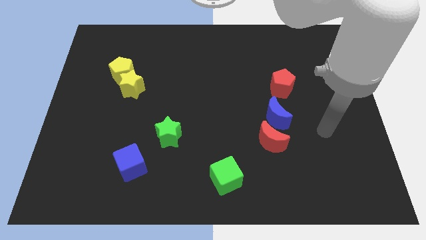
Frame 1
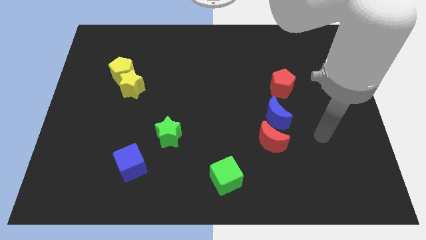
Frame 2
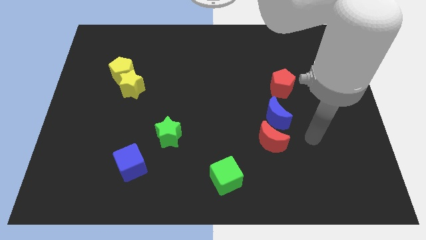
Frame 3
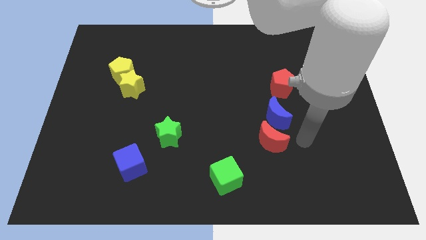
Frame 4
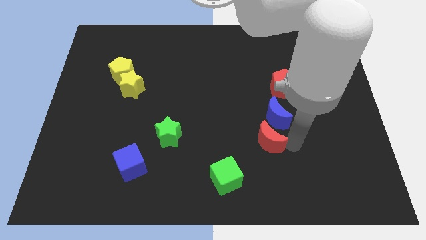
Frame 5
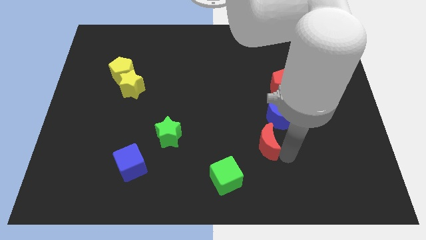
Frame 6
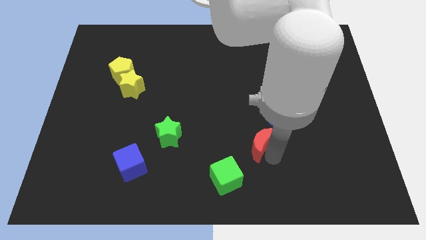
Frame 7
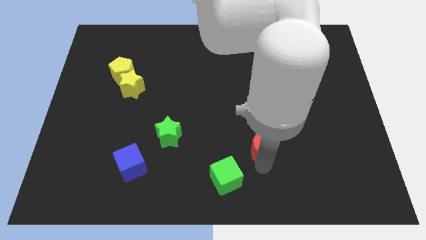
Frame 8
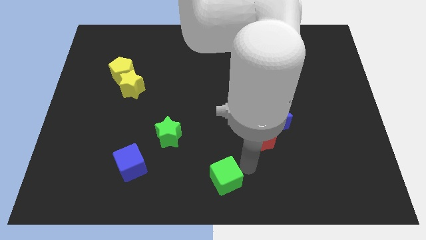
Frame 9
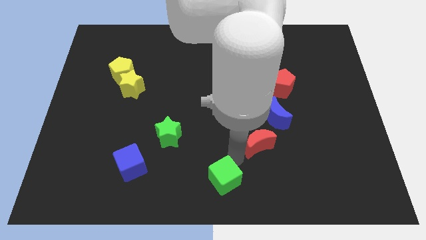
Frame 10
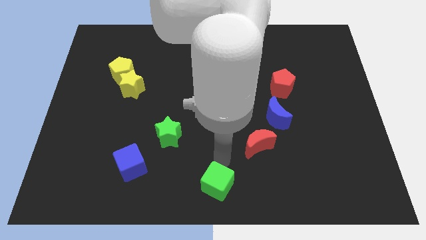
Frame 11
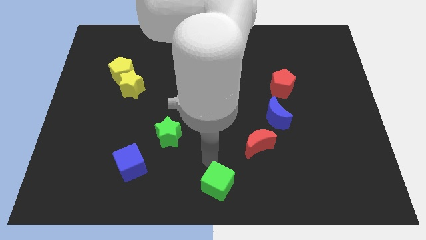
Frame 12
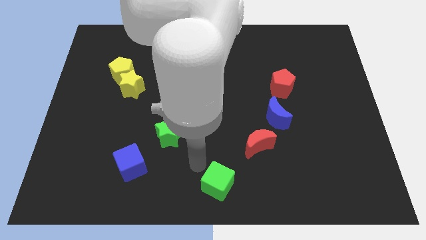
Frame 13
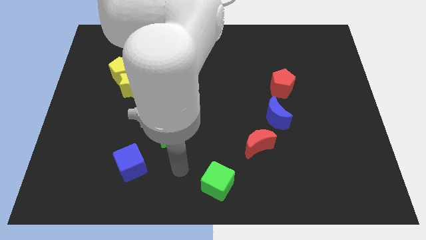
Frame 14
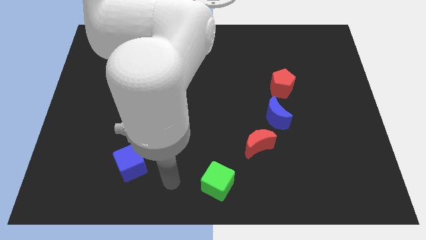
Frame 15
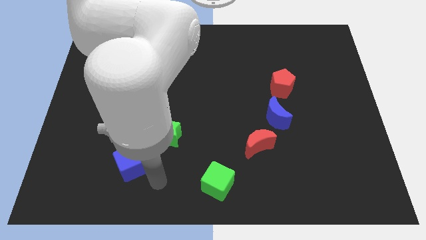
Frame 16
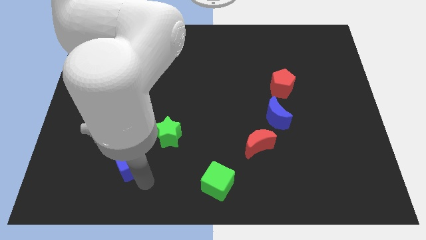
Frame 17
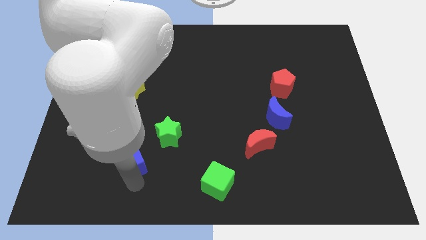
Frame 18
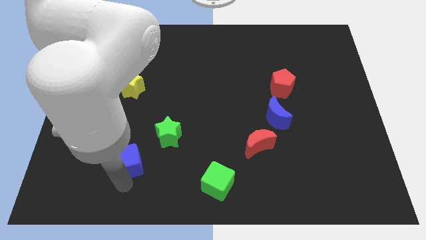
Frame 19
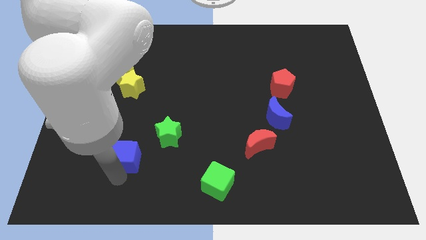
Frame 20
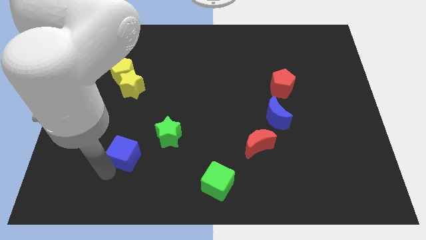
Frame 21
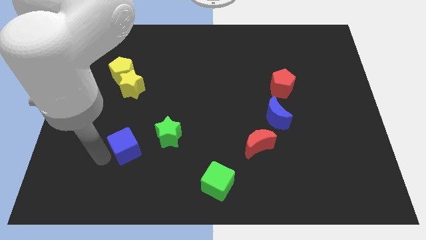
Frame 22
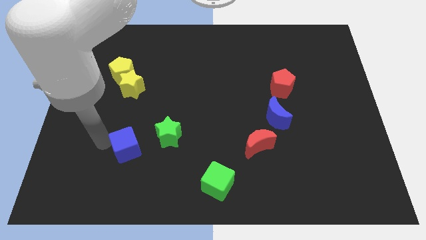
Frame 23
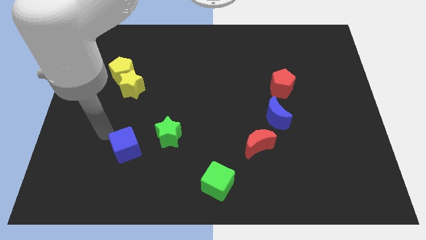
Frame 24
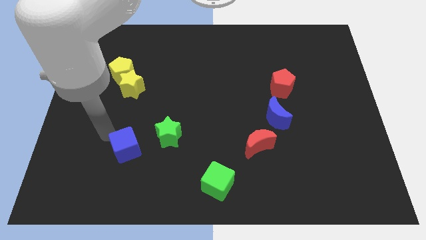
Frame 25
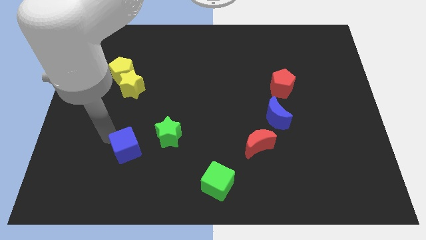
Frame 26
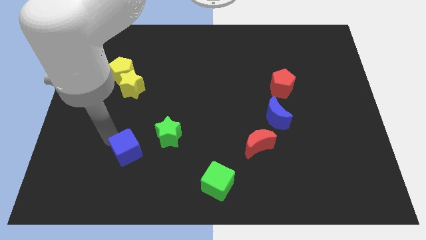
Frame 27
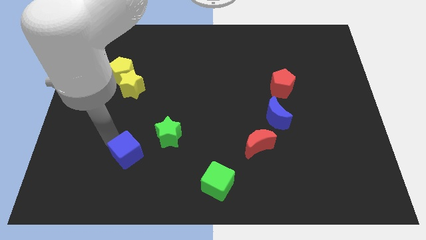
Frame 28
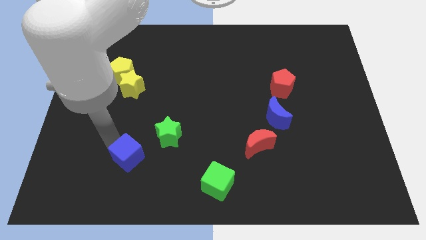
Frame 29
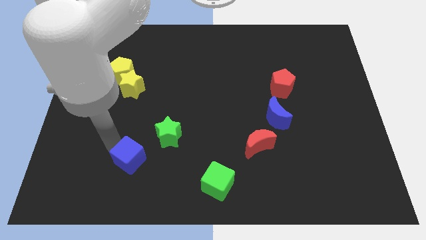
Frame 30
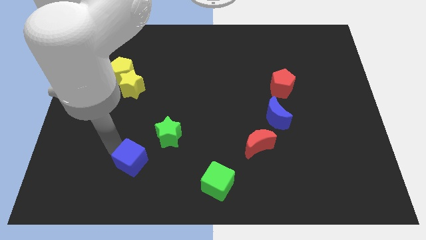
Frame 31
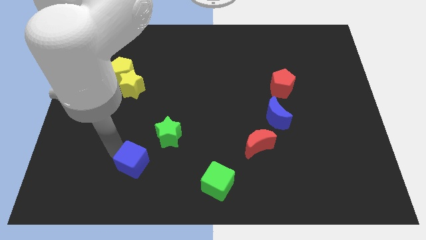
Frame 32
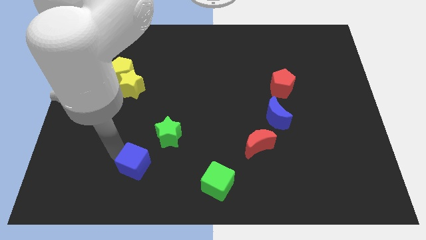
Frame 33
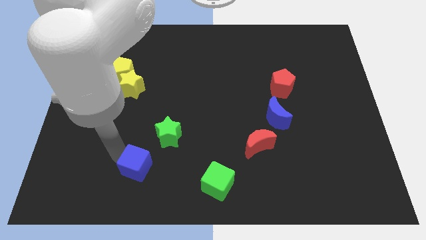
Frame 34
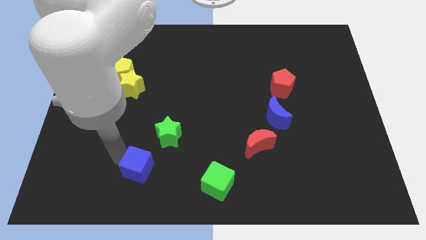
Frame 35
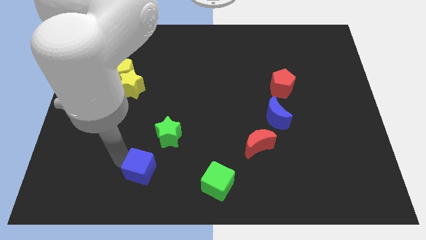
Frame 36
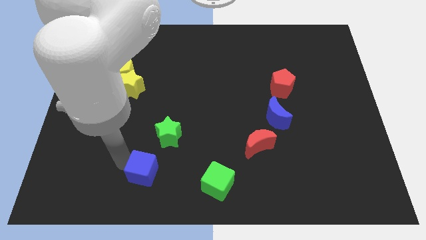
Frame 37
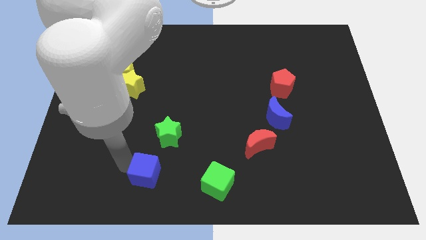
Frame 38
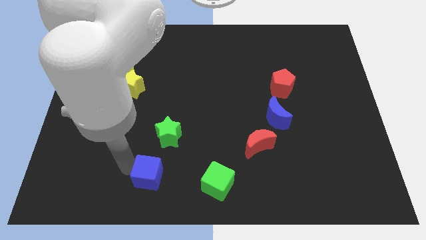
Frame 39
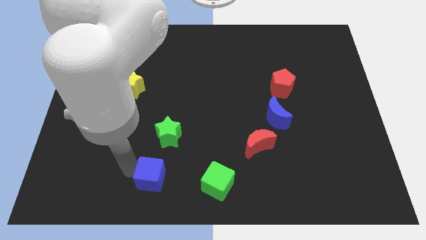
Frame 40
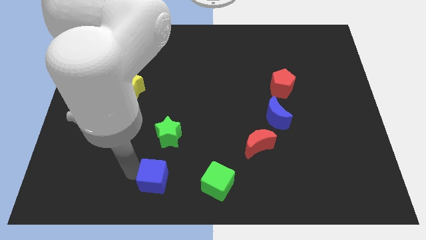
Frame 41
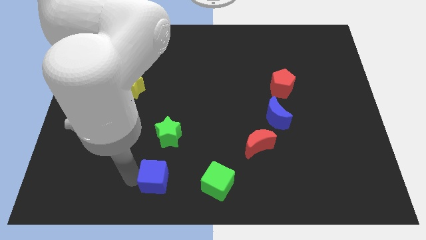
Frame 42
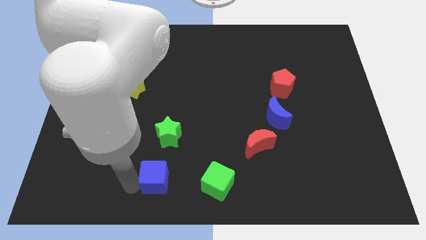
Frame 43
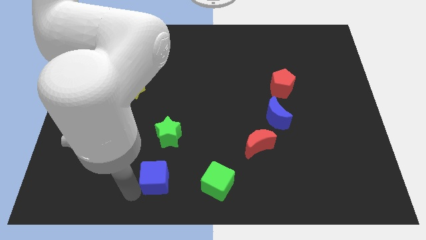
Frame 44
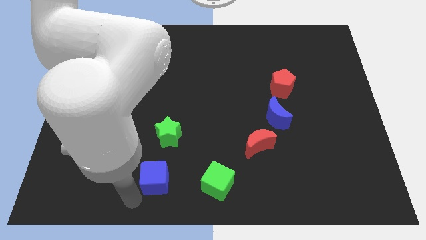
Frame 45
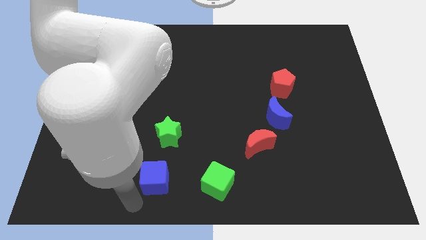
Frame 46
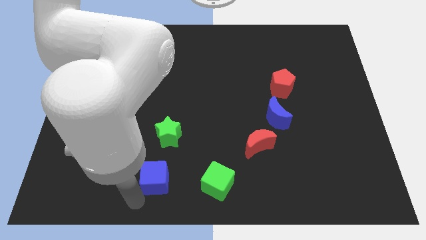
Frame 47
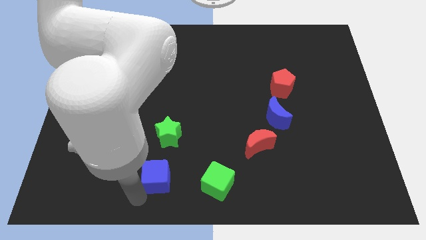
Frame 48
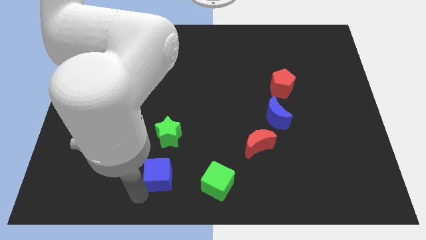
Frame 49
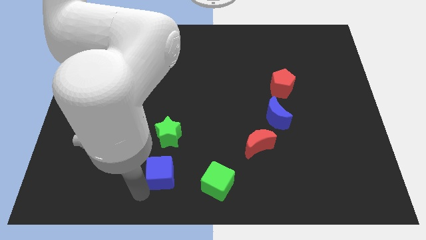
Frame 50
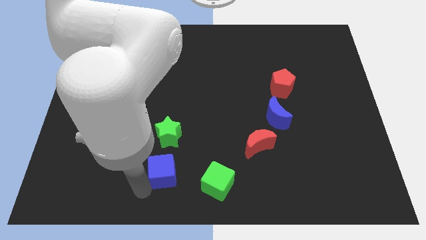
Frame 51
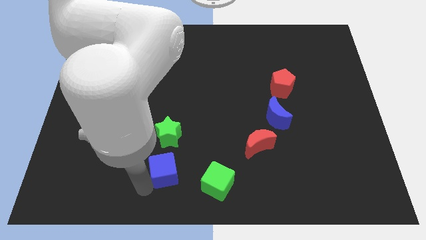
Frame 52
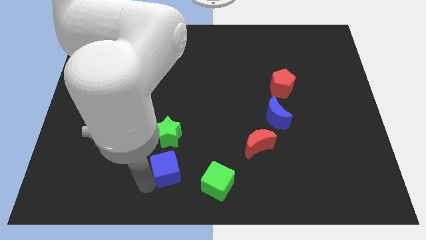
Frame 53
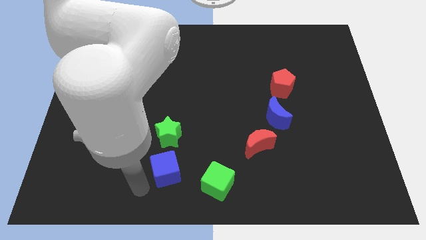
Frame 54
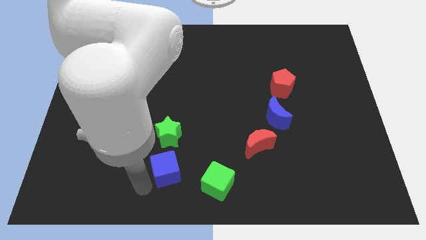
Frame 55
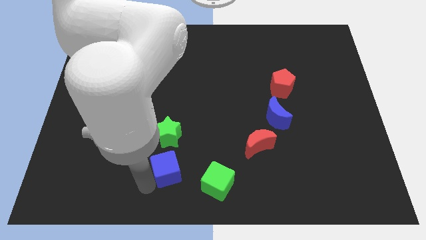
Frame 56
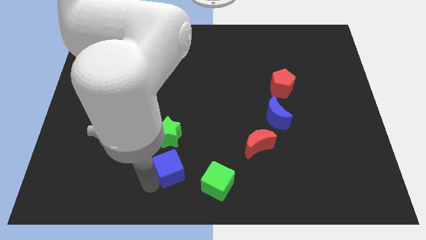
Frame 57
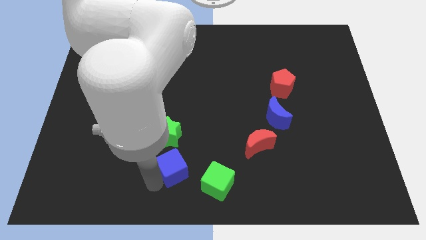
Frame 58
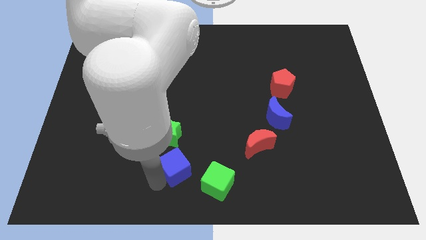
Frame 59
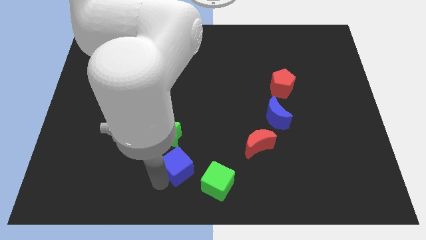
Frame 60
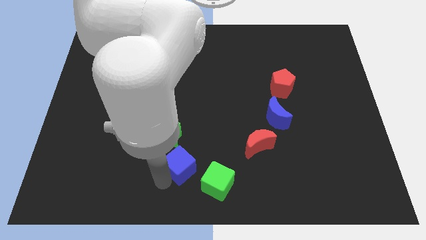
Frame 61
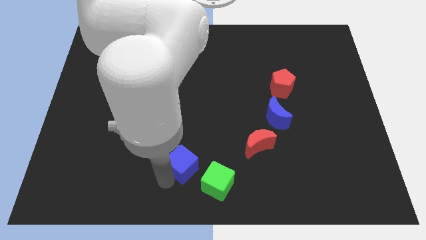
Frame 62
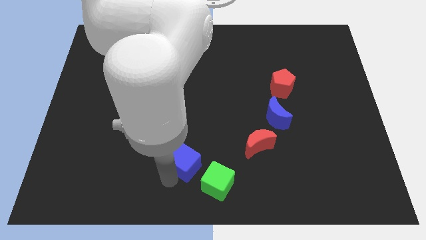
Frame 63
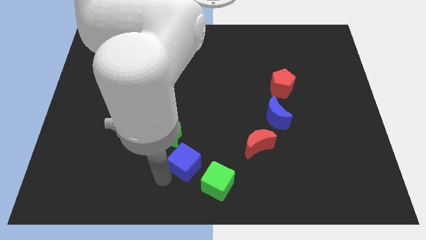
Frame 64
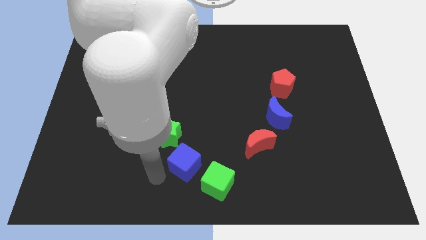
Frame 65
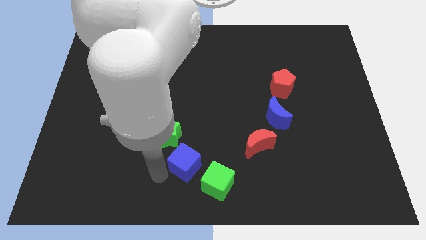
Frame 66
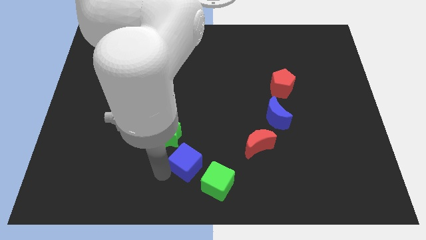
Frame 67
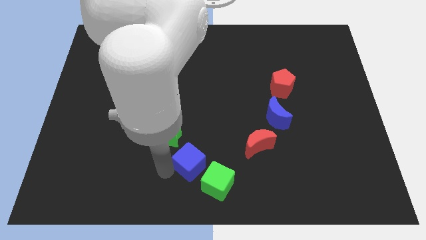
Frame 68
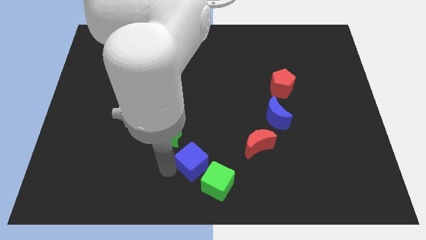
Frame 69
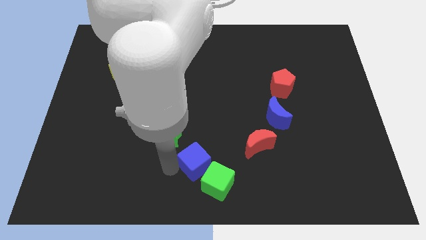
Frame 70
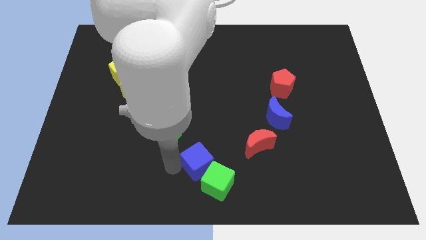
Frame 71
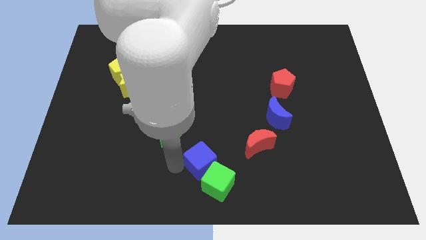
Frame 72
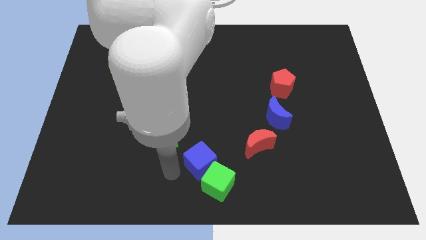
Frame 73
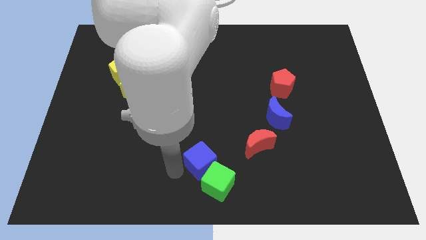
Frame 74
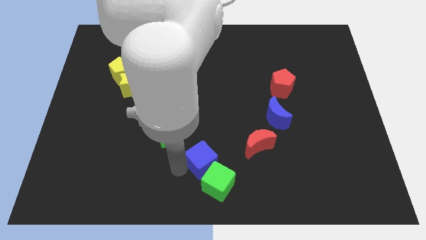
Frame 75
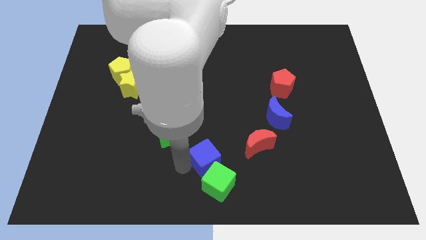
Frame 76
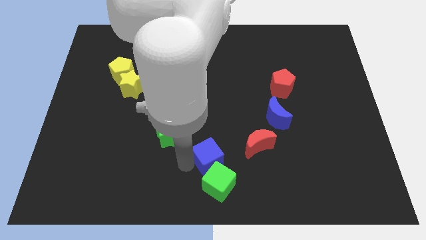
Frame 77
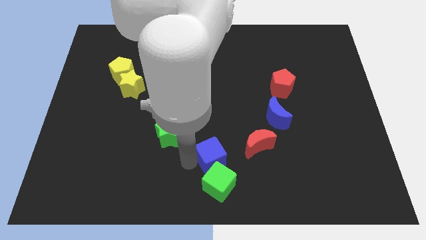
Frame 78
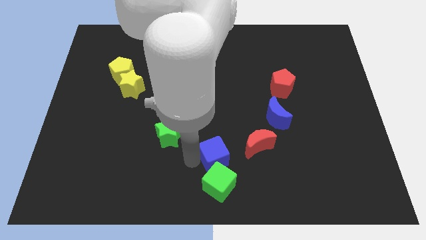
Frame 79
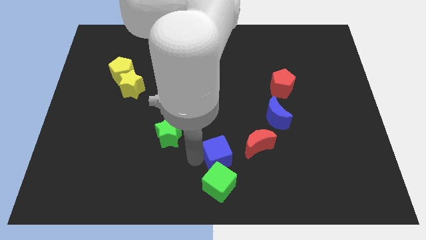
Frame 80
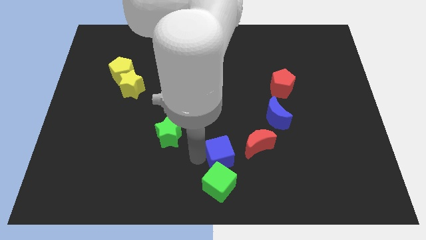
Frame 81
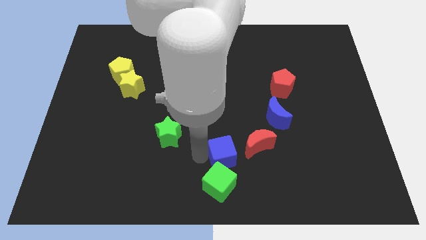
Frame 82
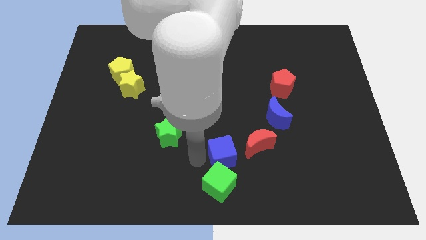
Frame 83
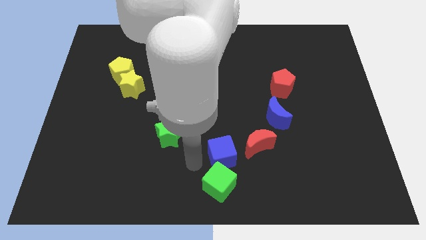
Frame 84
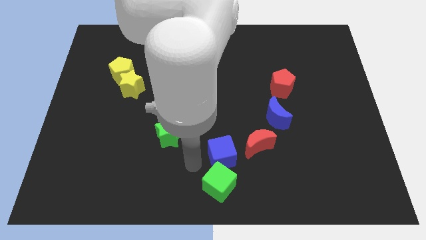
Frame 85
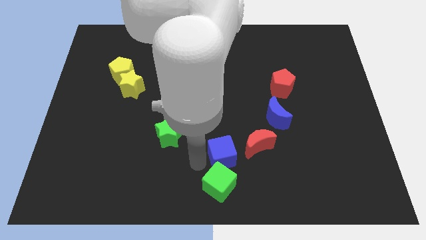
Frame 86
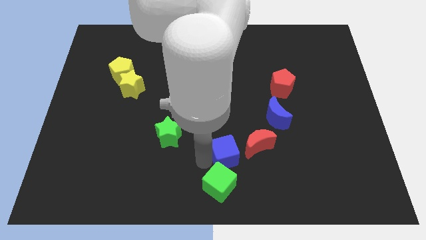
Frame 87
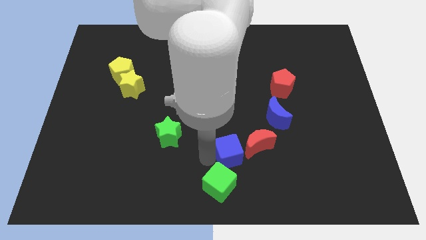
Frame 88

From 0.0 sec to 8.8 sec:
slide the blue cube to the right
